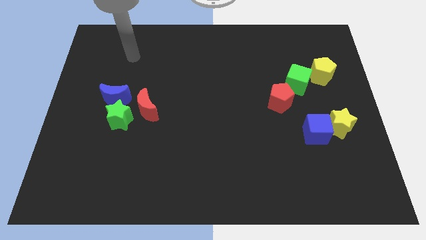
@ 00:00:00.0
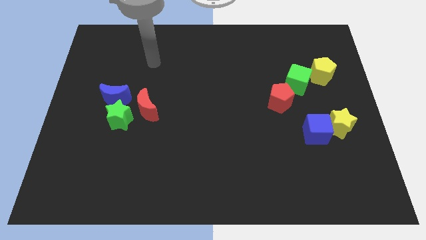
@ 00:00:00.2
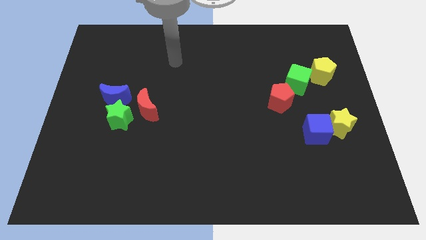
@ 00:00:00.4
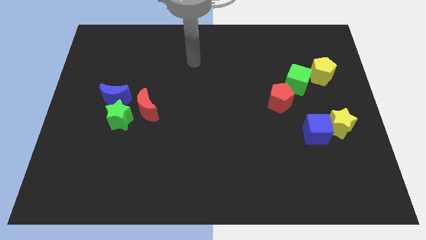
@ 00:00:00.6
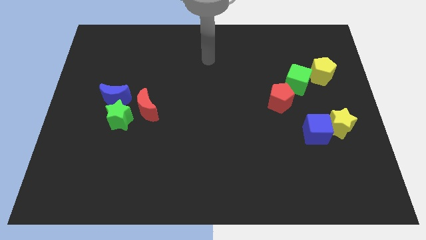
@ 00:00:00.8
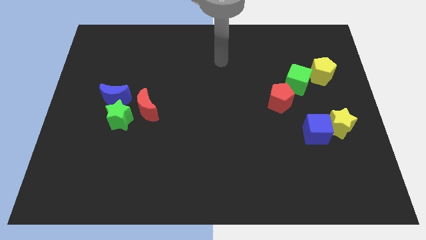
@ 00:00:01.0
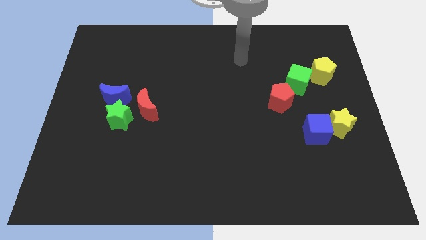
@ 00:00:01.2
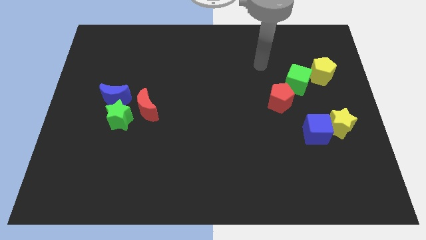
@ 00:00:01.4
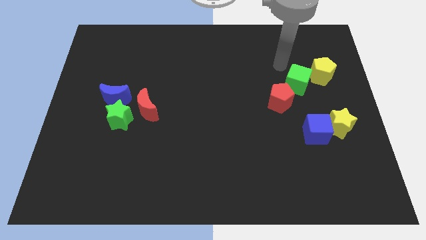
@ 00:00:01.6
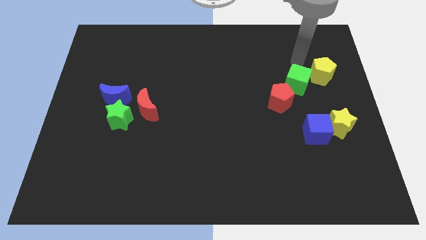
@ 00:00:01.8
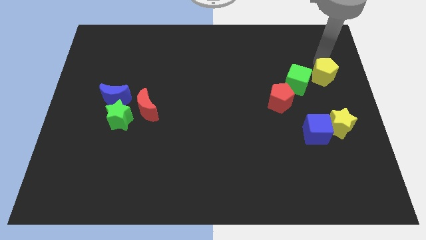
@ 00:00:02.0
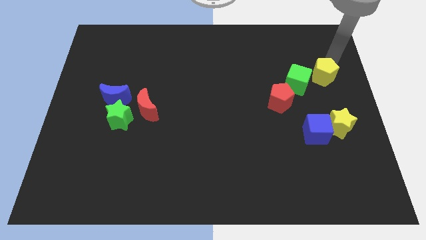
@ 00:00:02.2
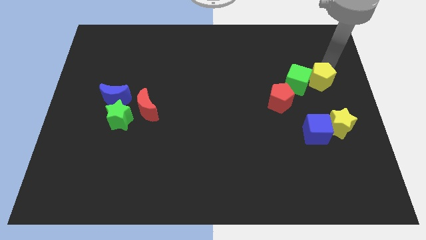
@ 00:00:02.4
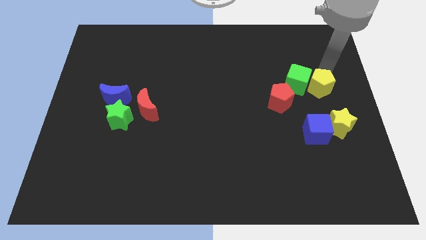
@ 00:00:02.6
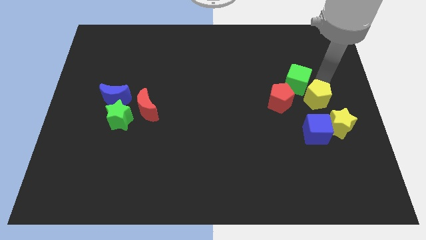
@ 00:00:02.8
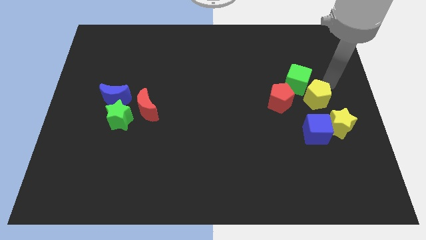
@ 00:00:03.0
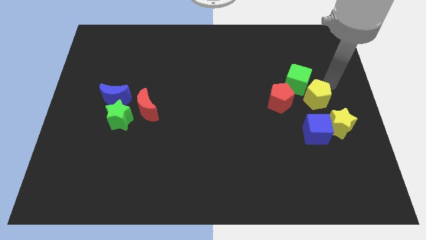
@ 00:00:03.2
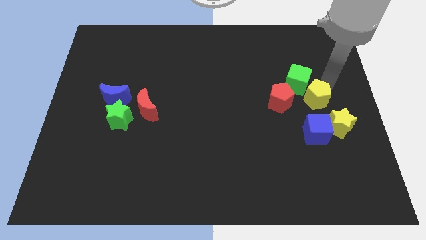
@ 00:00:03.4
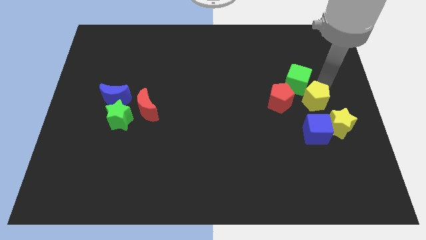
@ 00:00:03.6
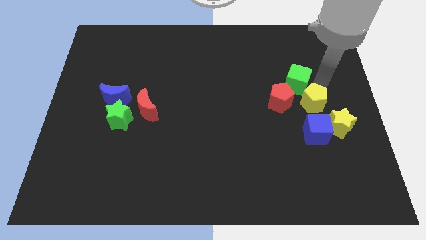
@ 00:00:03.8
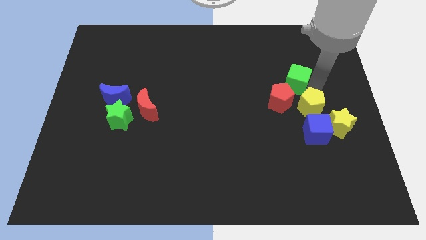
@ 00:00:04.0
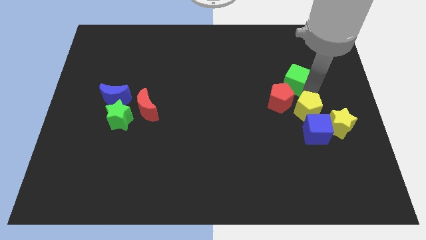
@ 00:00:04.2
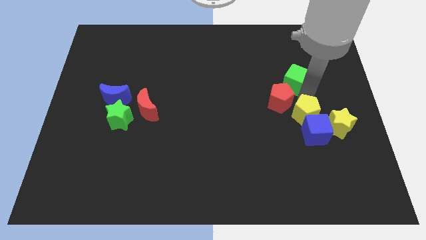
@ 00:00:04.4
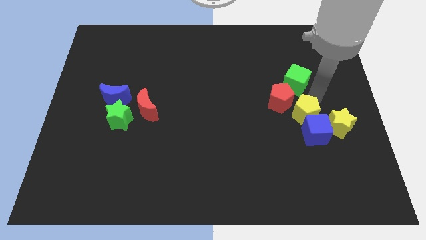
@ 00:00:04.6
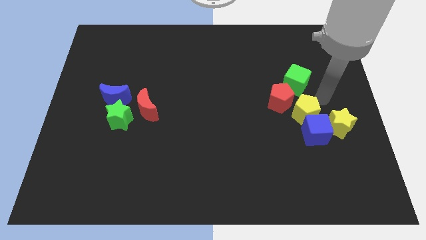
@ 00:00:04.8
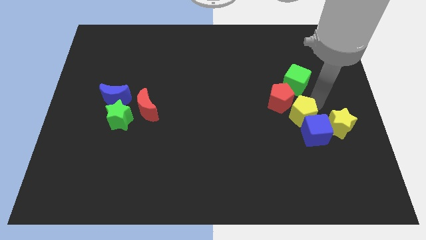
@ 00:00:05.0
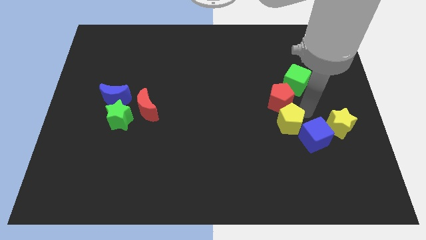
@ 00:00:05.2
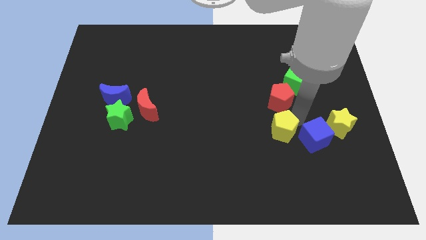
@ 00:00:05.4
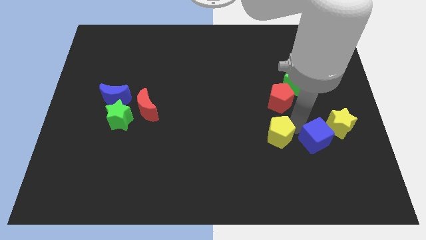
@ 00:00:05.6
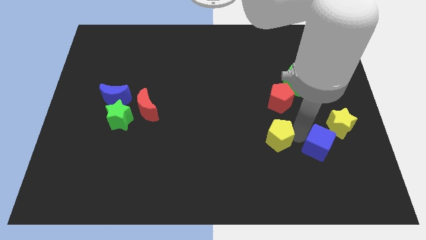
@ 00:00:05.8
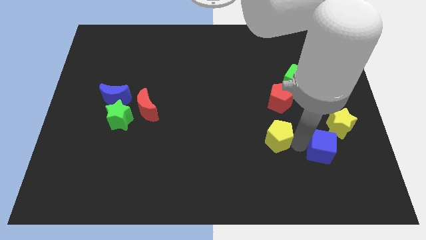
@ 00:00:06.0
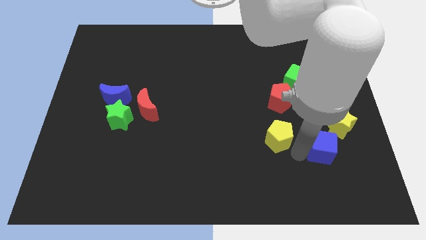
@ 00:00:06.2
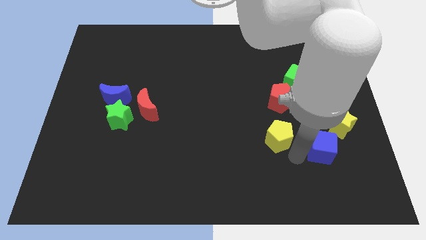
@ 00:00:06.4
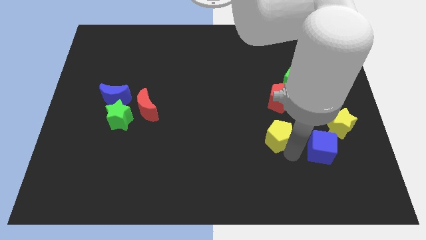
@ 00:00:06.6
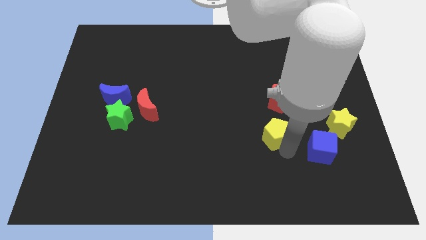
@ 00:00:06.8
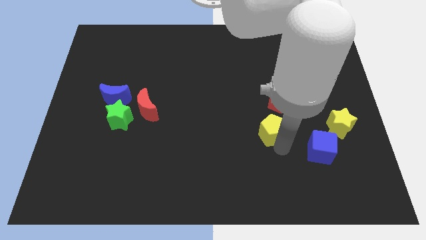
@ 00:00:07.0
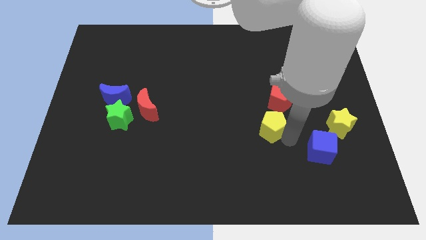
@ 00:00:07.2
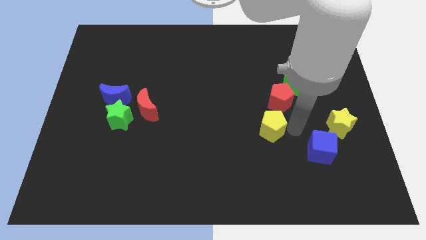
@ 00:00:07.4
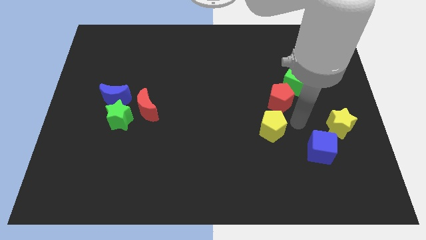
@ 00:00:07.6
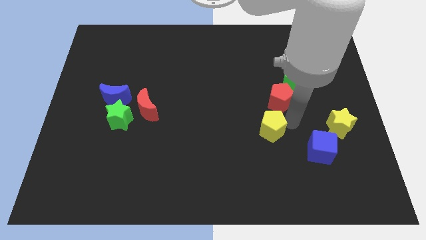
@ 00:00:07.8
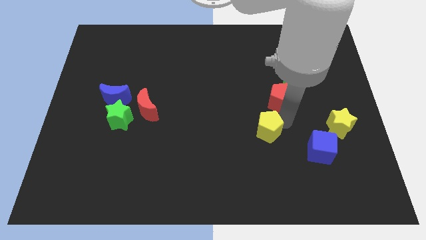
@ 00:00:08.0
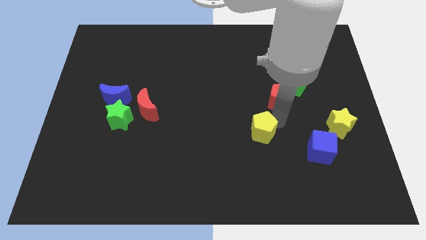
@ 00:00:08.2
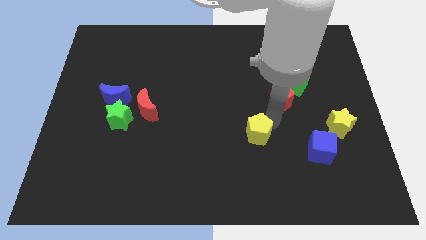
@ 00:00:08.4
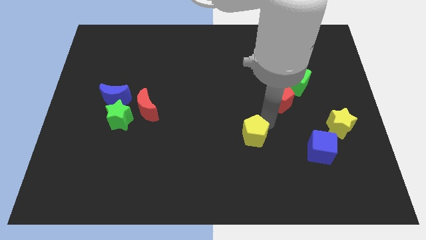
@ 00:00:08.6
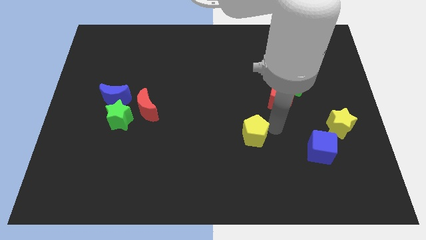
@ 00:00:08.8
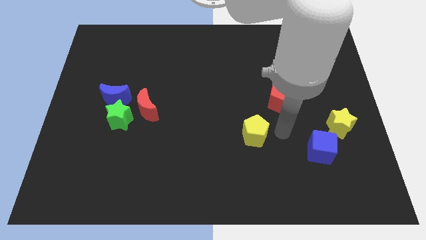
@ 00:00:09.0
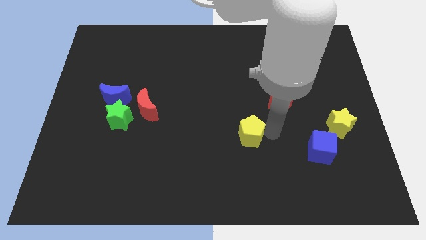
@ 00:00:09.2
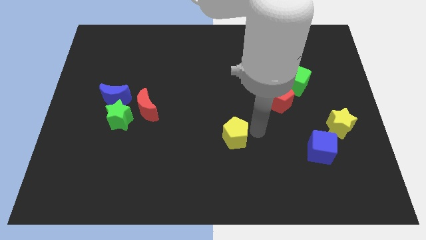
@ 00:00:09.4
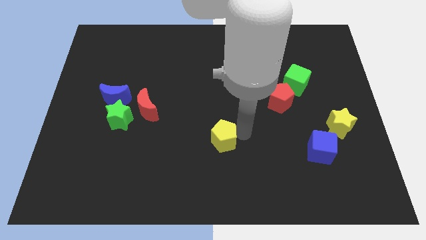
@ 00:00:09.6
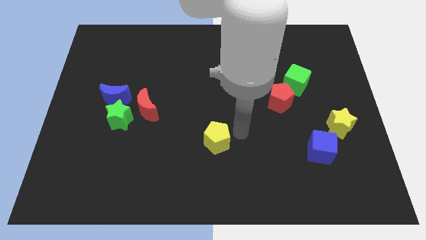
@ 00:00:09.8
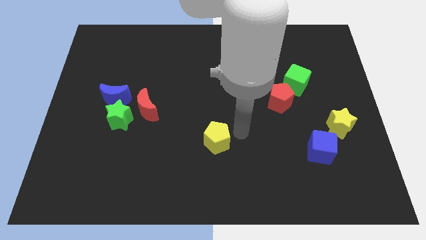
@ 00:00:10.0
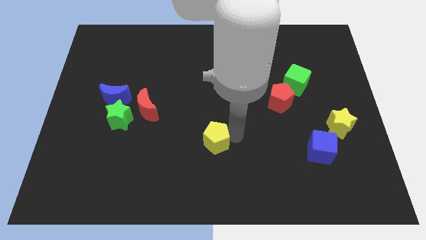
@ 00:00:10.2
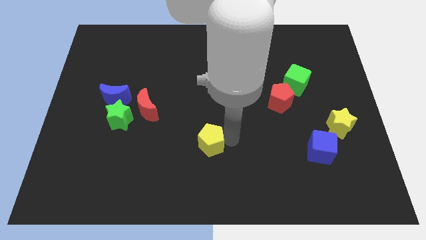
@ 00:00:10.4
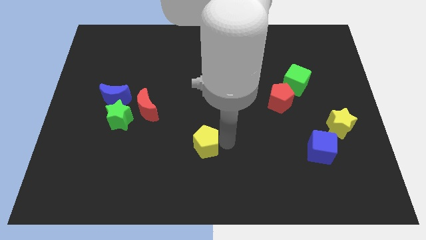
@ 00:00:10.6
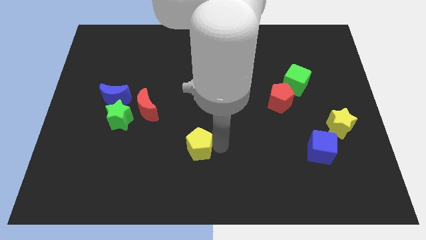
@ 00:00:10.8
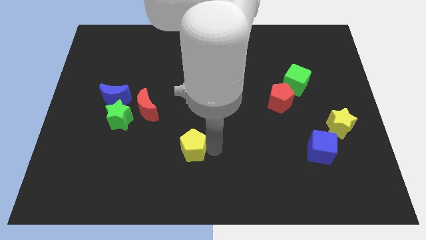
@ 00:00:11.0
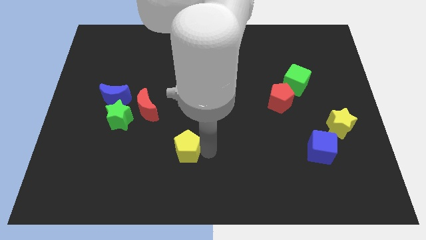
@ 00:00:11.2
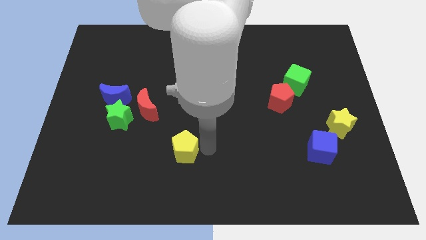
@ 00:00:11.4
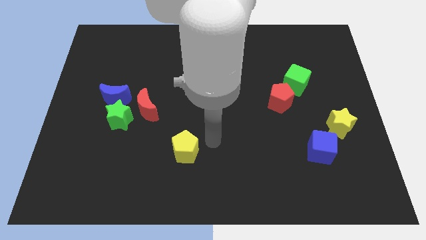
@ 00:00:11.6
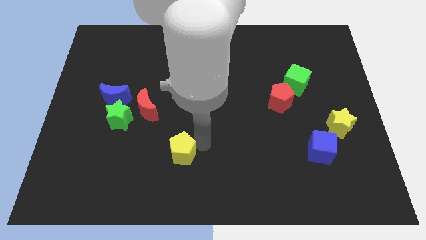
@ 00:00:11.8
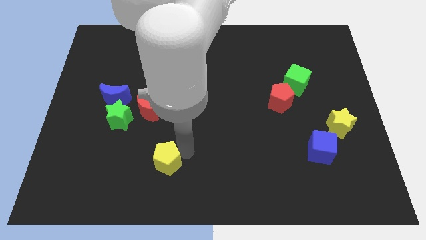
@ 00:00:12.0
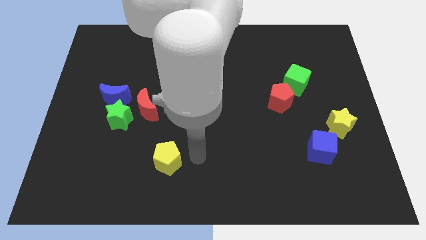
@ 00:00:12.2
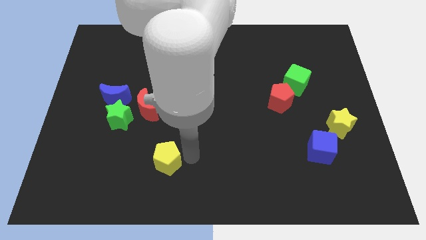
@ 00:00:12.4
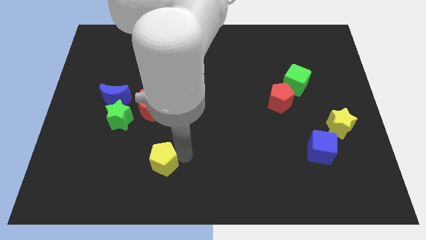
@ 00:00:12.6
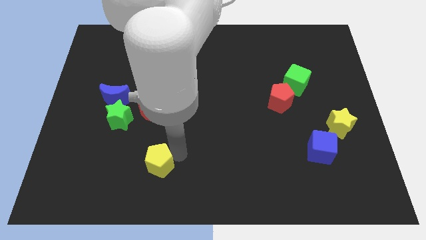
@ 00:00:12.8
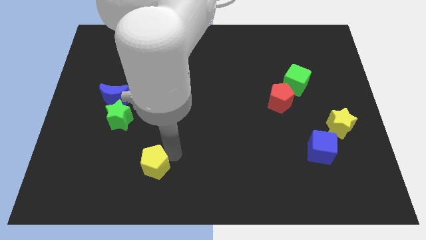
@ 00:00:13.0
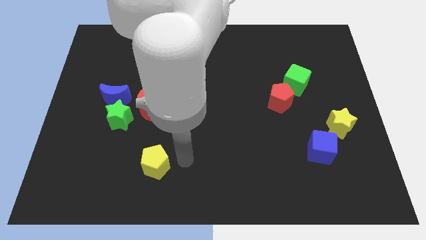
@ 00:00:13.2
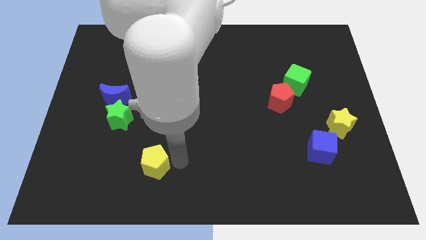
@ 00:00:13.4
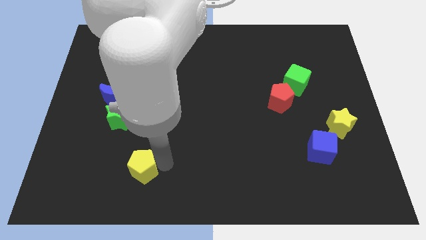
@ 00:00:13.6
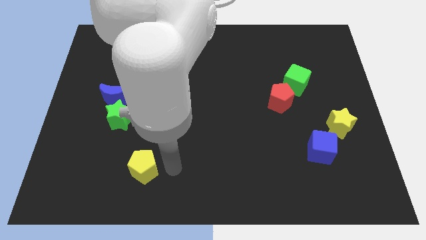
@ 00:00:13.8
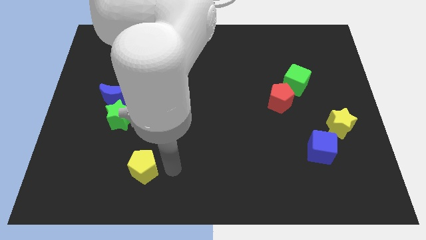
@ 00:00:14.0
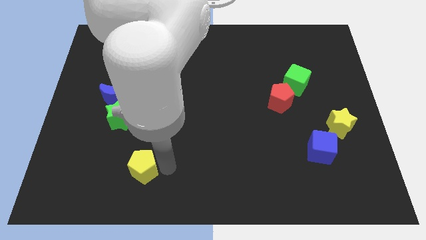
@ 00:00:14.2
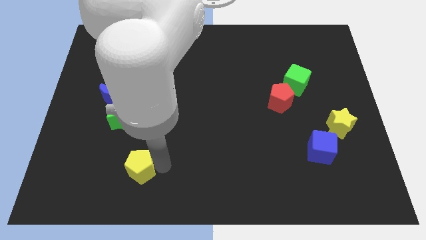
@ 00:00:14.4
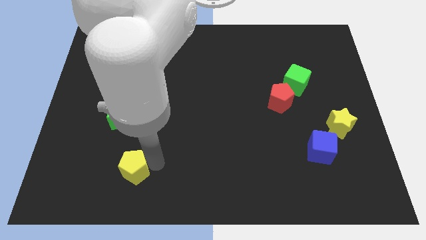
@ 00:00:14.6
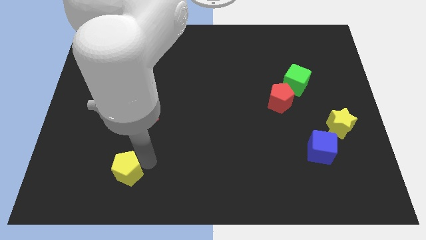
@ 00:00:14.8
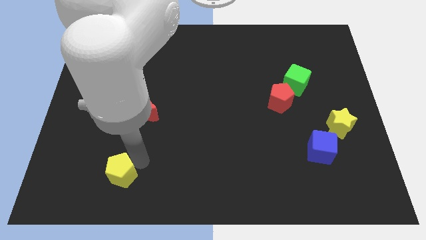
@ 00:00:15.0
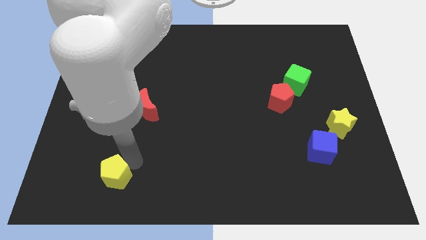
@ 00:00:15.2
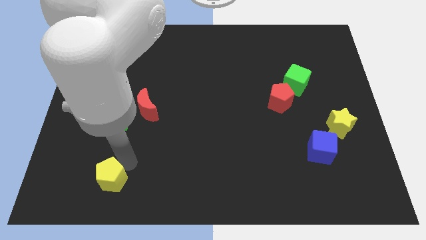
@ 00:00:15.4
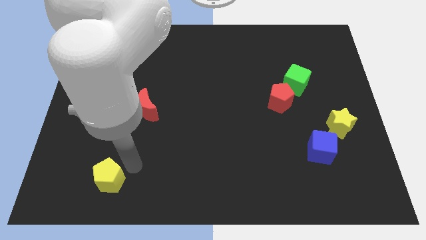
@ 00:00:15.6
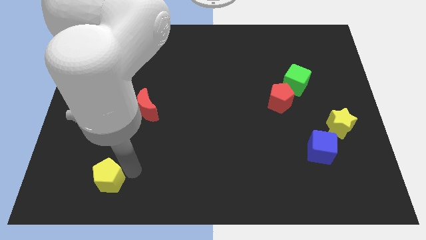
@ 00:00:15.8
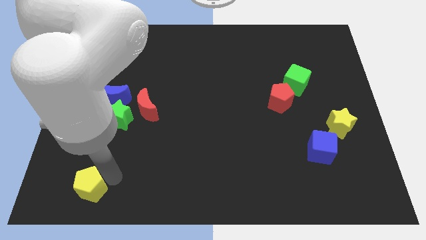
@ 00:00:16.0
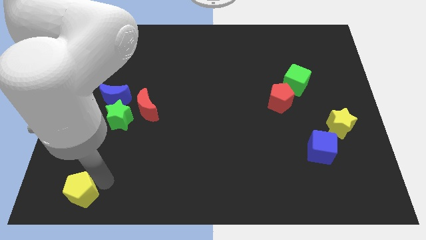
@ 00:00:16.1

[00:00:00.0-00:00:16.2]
push the yellow pentagon to the bottom left
